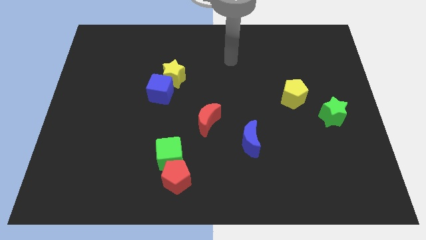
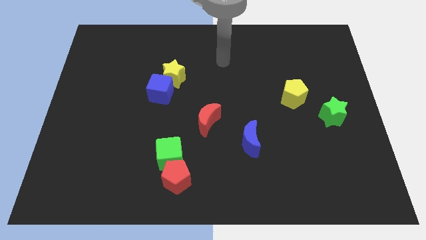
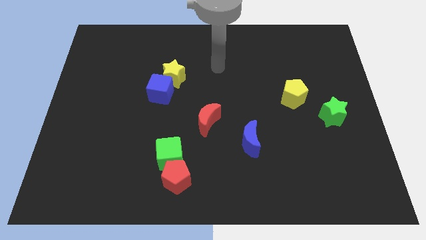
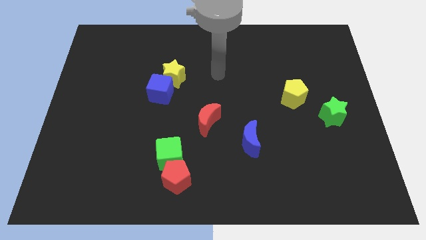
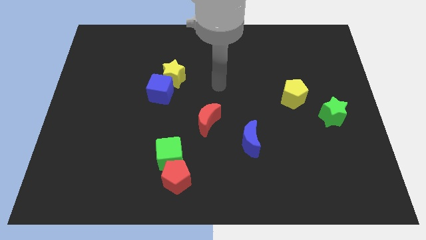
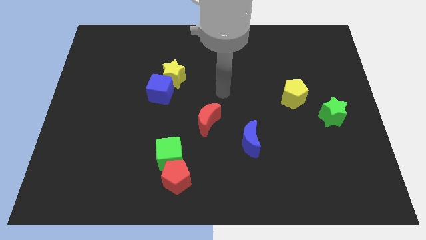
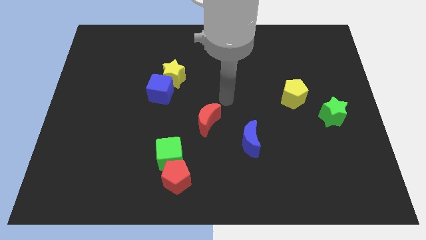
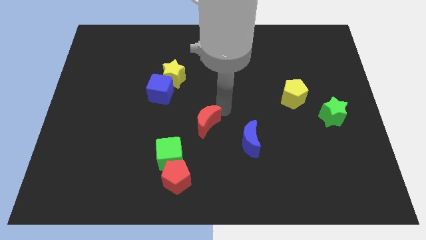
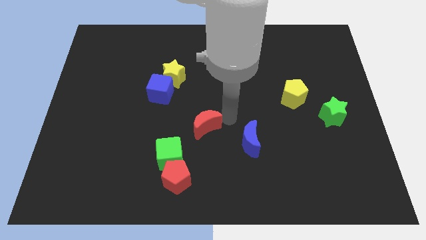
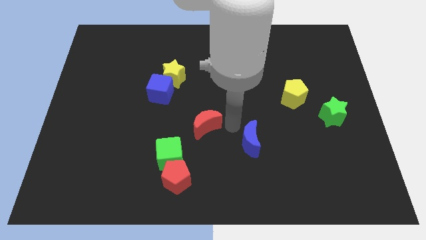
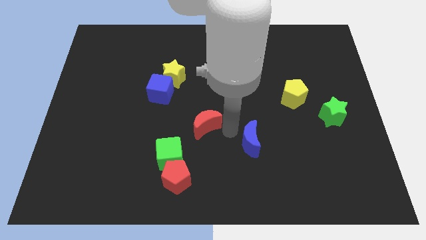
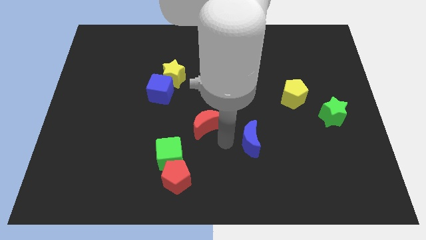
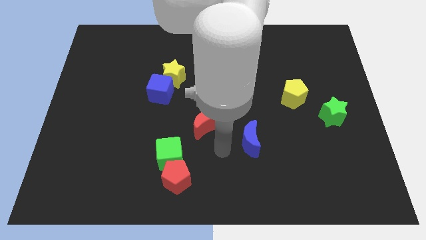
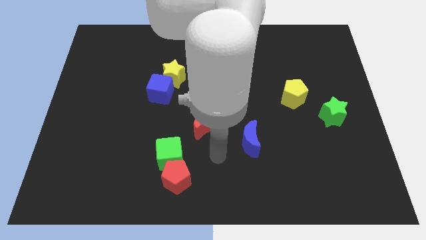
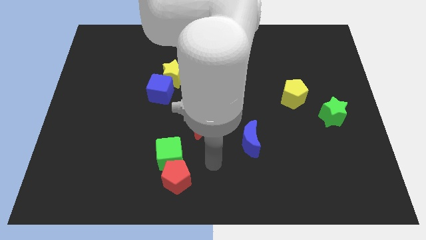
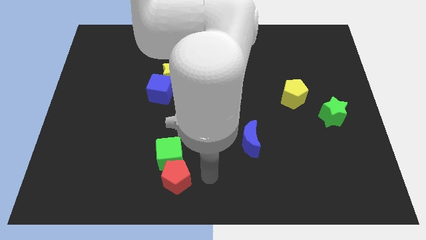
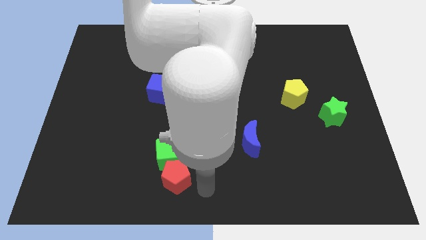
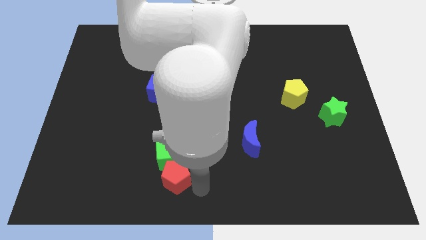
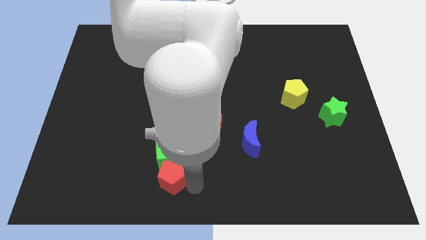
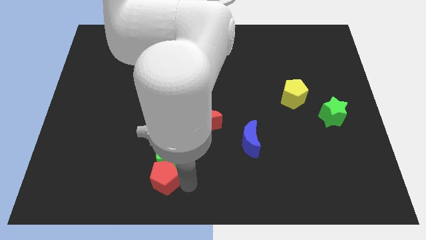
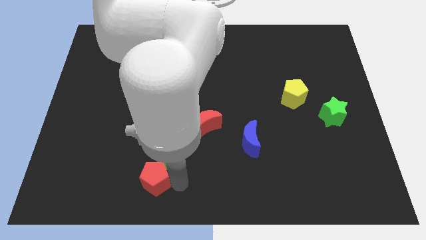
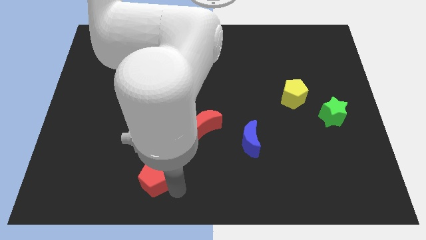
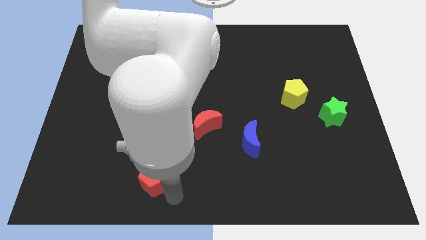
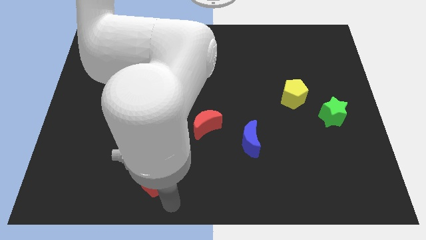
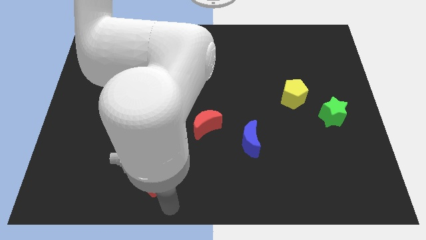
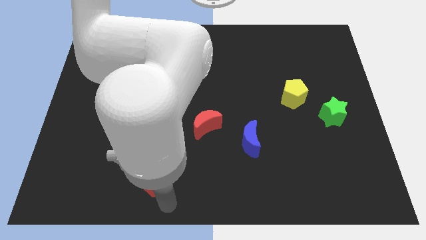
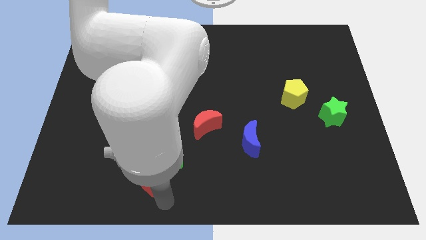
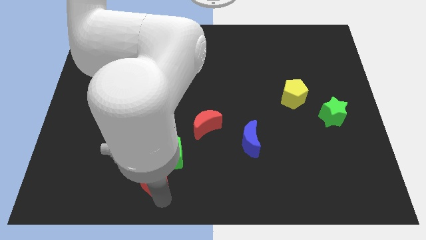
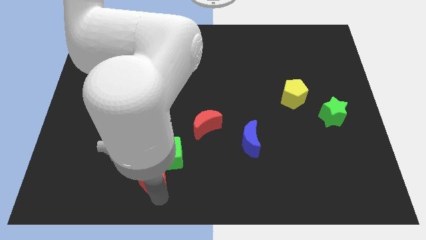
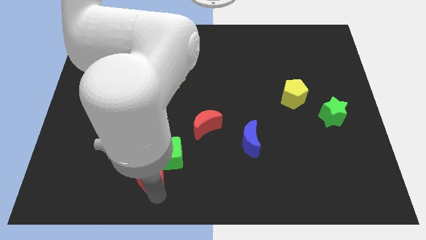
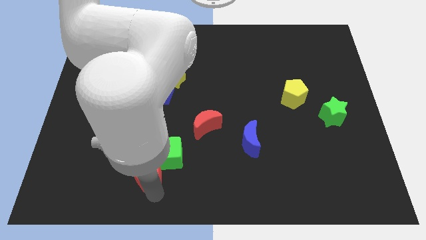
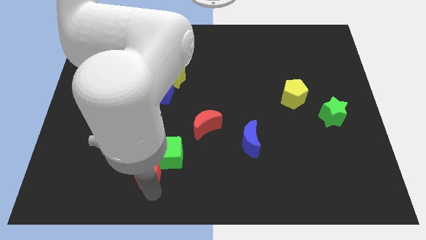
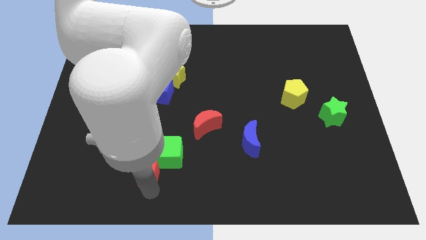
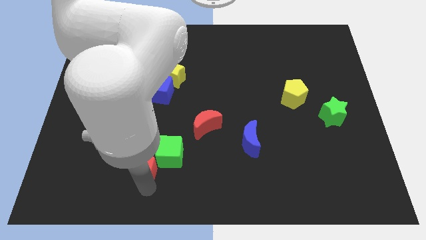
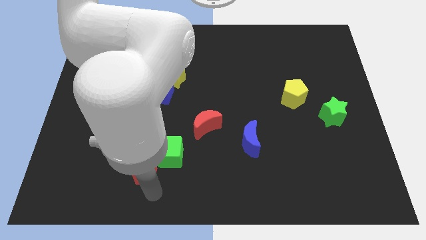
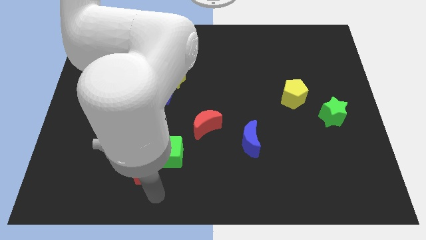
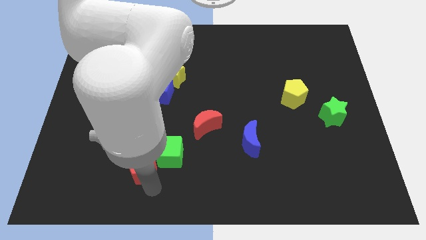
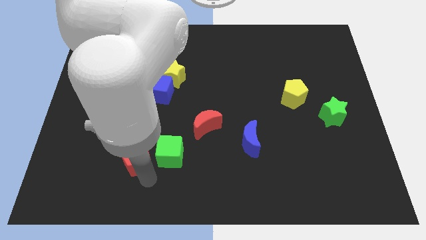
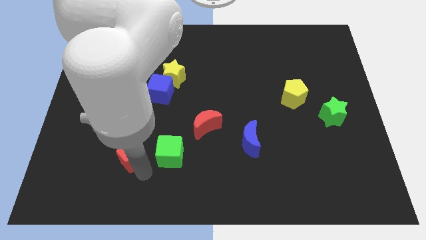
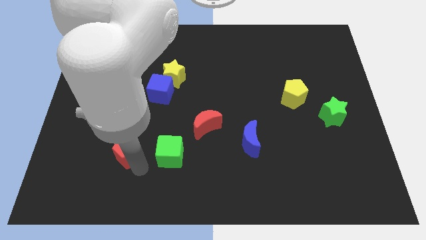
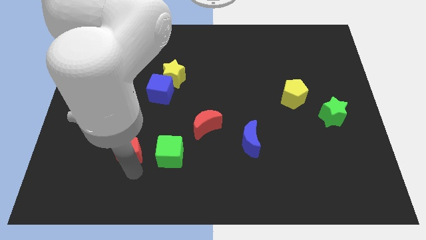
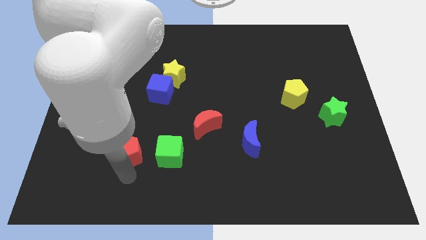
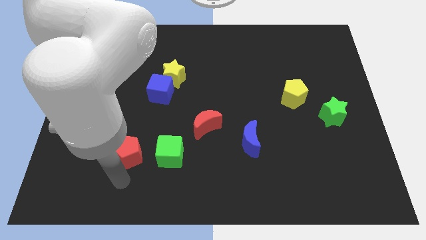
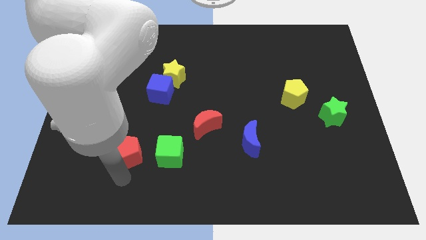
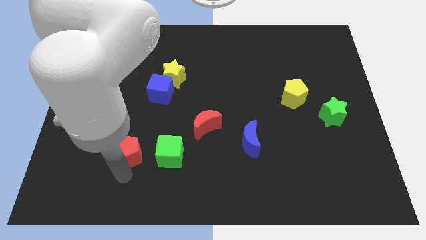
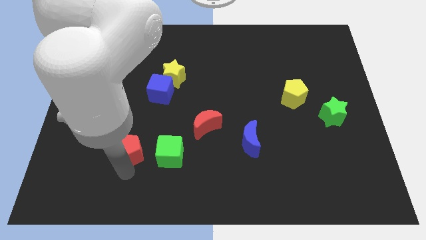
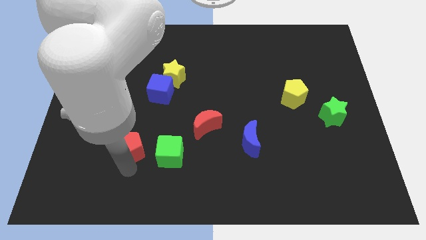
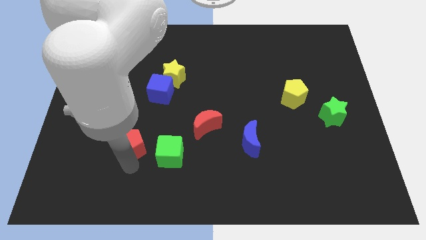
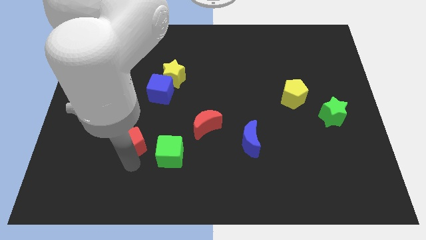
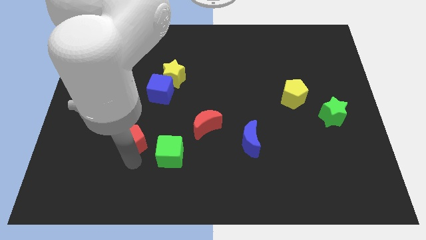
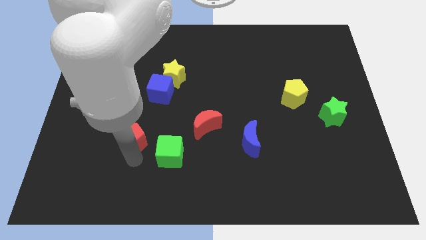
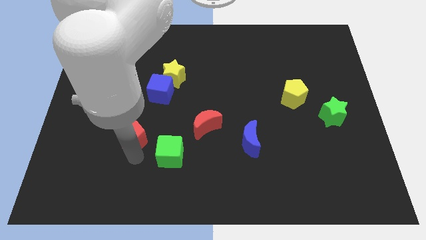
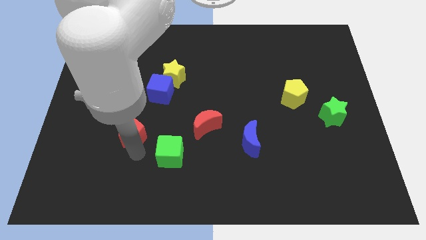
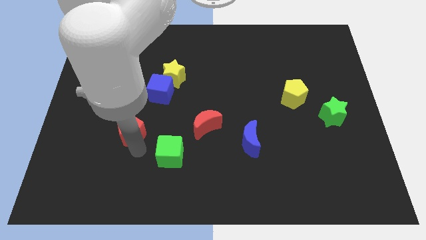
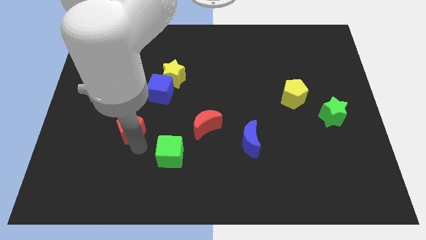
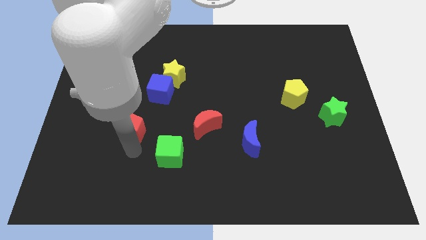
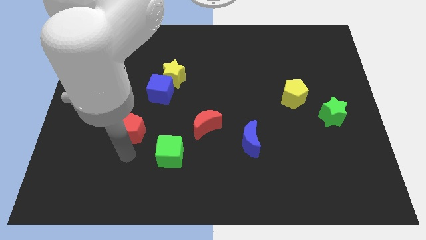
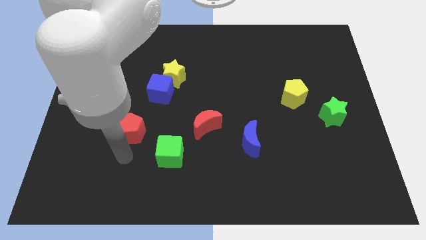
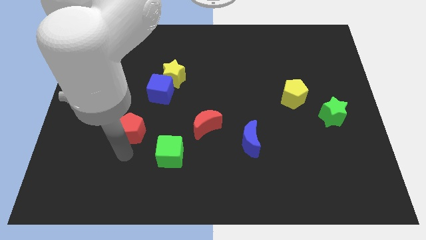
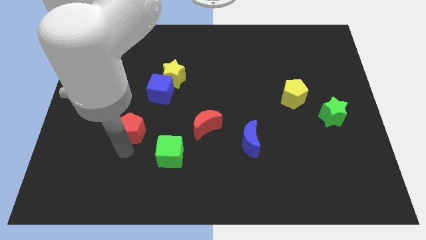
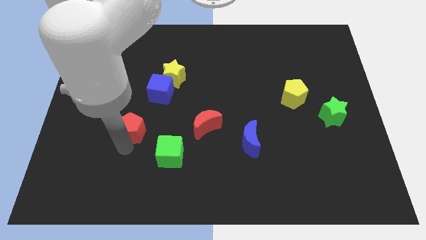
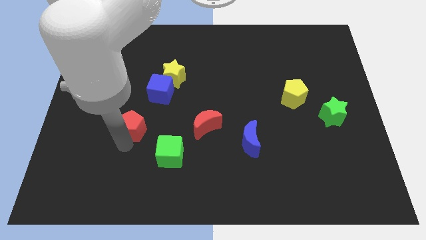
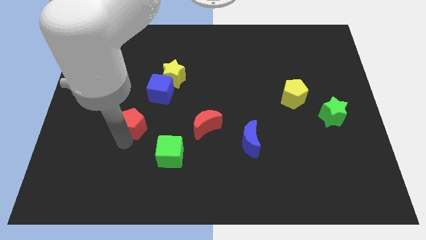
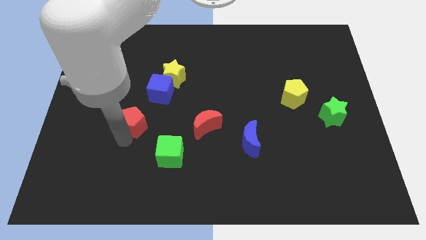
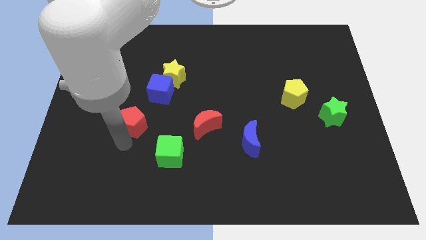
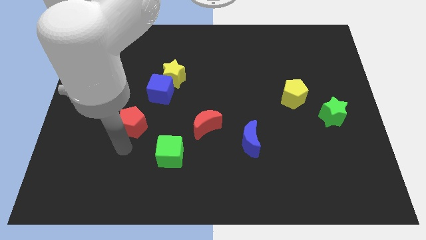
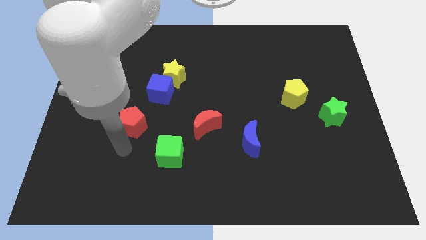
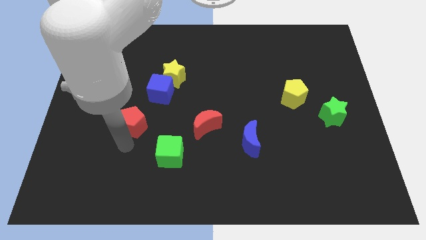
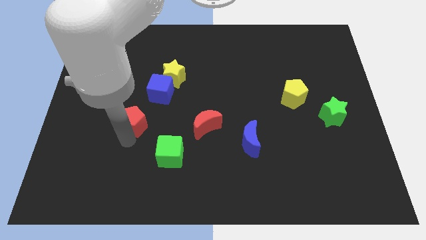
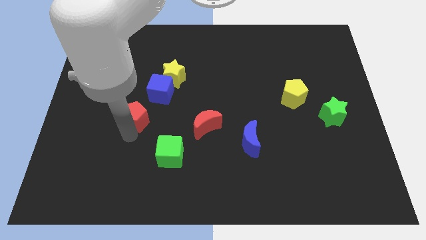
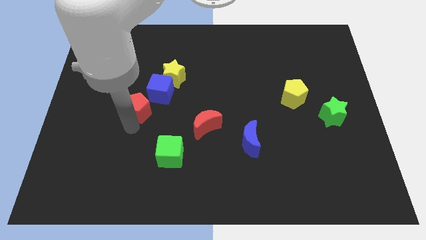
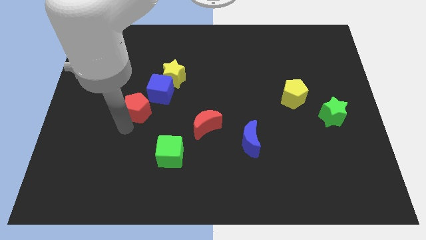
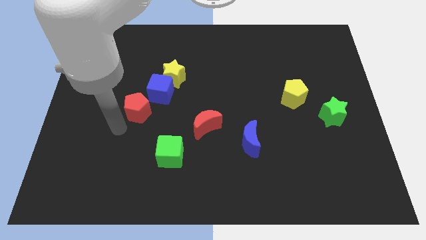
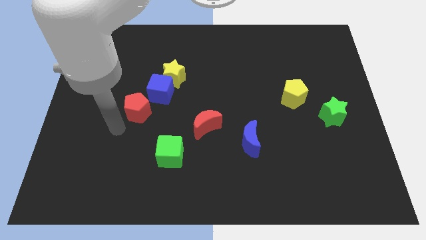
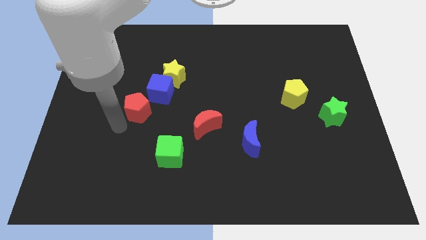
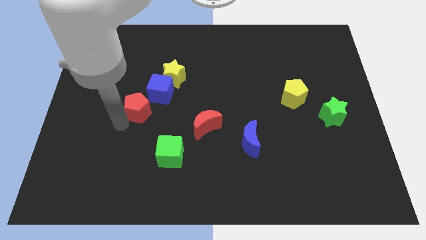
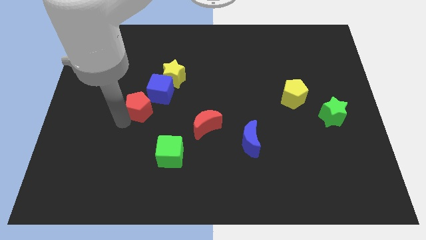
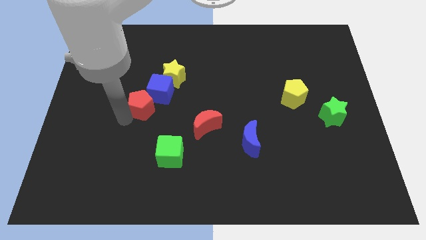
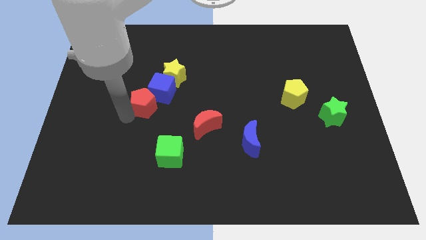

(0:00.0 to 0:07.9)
put the red pentagon towards the blue cube
